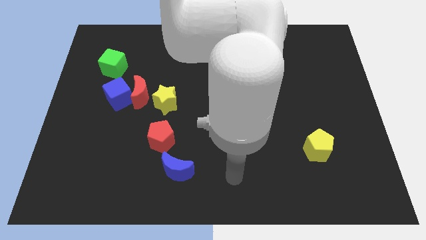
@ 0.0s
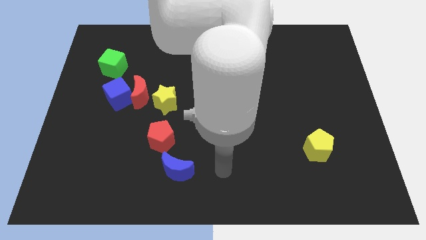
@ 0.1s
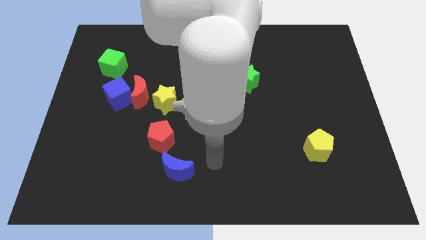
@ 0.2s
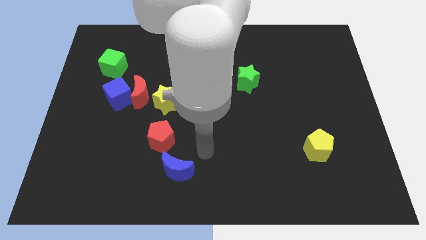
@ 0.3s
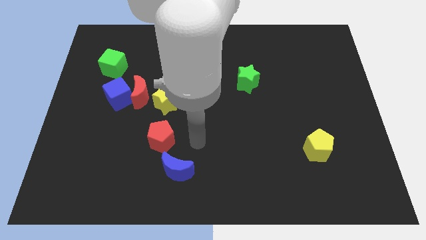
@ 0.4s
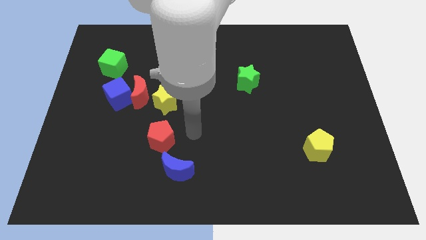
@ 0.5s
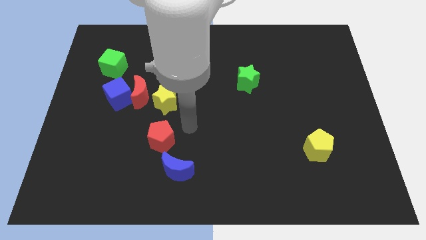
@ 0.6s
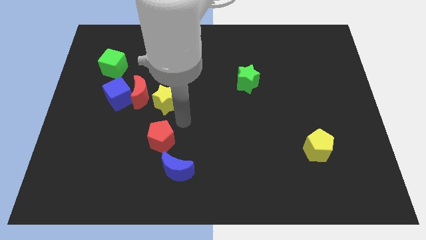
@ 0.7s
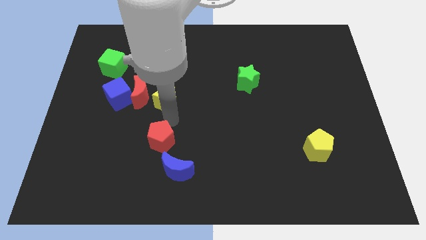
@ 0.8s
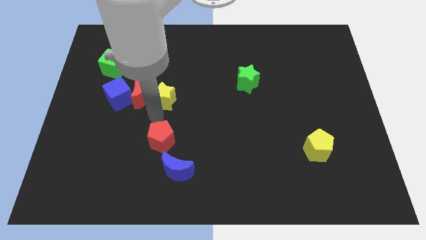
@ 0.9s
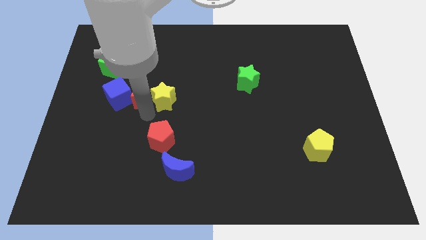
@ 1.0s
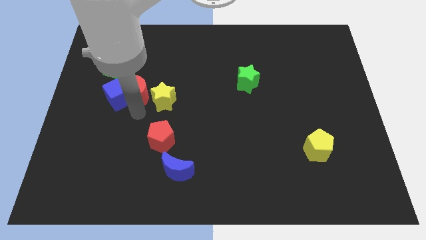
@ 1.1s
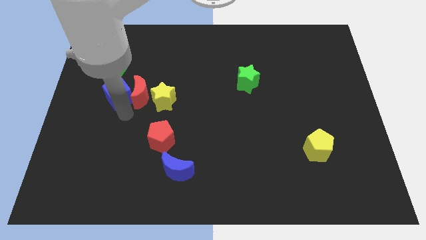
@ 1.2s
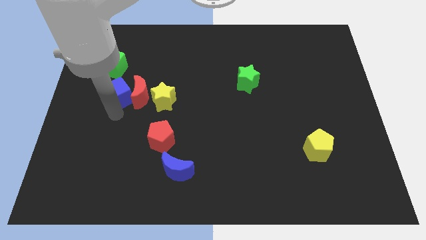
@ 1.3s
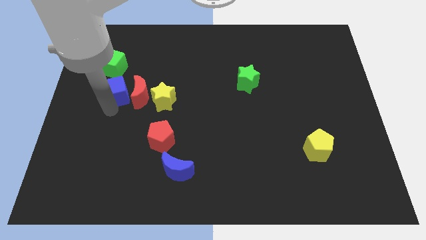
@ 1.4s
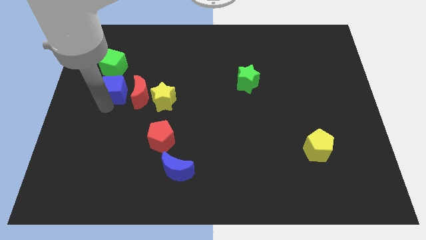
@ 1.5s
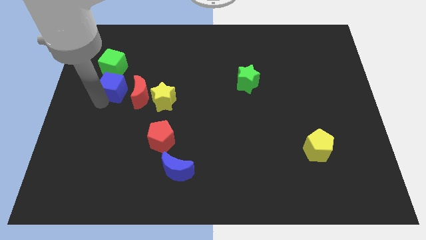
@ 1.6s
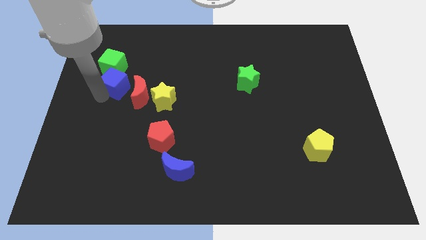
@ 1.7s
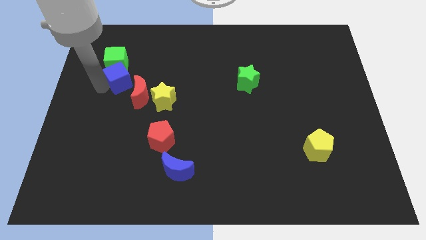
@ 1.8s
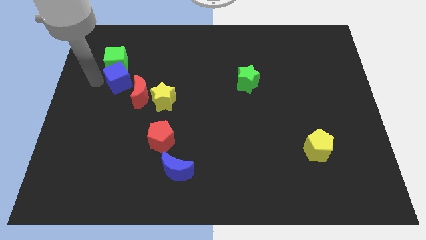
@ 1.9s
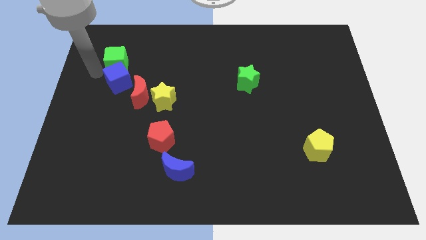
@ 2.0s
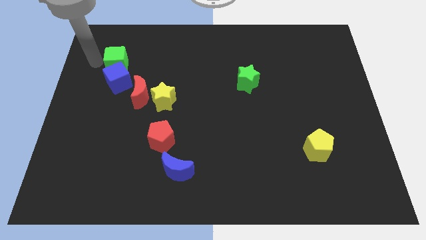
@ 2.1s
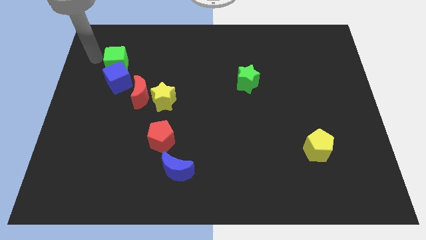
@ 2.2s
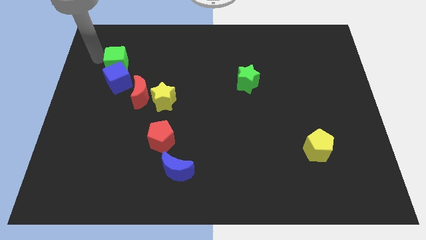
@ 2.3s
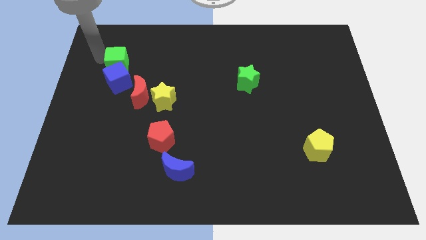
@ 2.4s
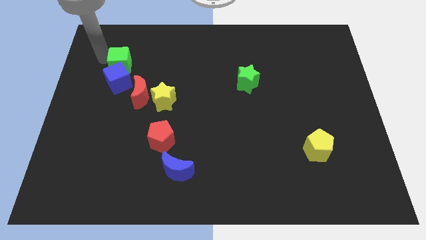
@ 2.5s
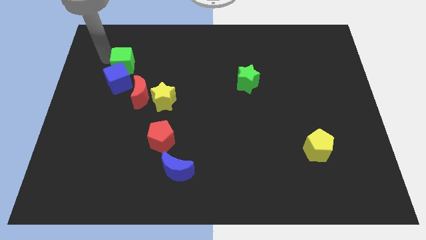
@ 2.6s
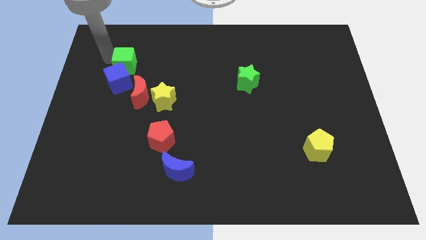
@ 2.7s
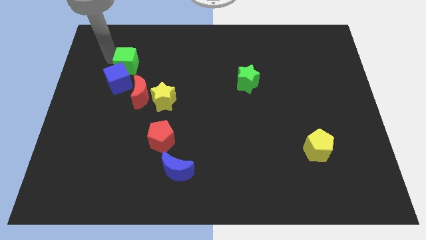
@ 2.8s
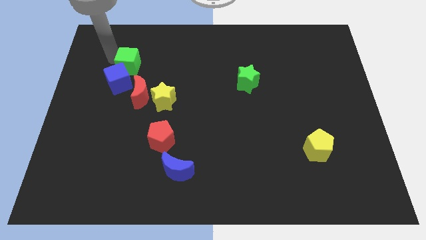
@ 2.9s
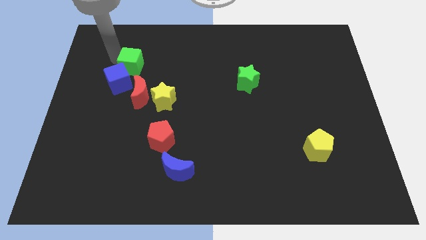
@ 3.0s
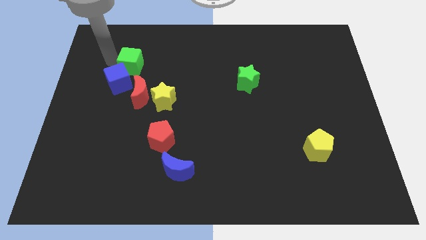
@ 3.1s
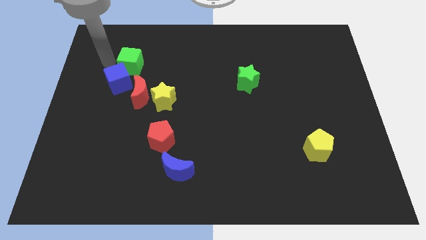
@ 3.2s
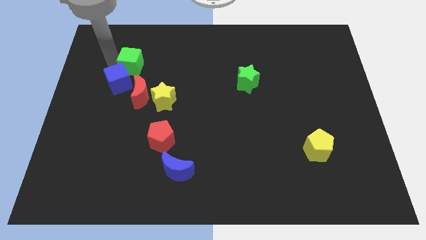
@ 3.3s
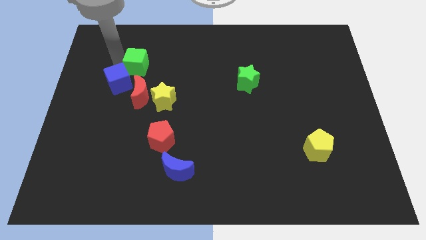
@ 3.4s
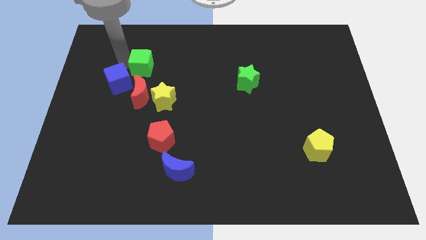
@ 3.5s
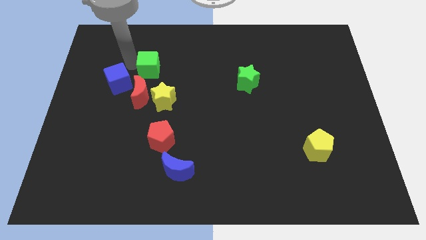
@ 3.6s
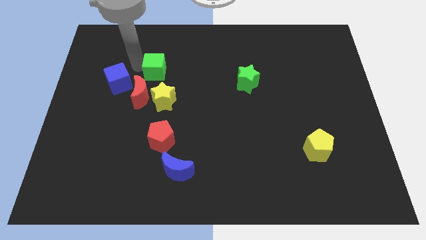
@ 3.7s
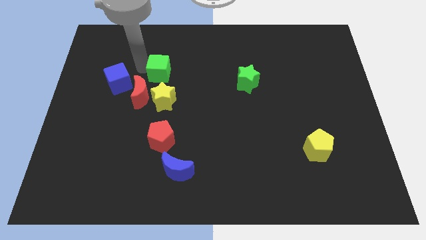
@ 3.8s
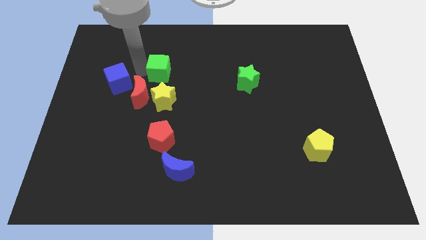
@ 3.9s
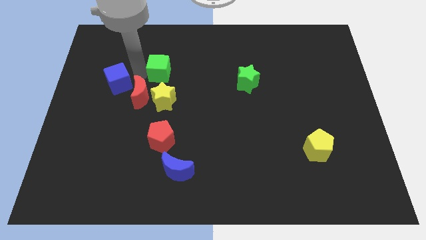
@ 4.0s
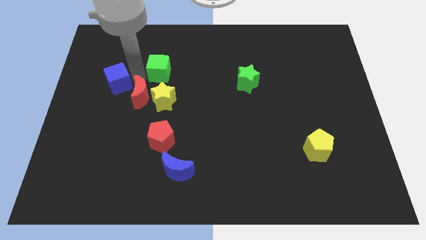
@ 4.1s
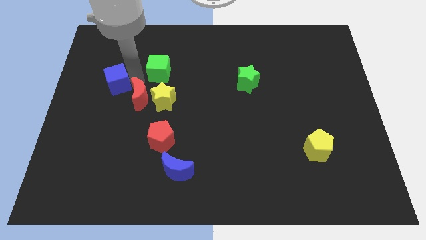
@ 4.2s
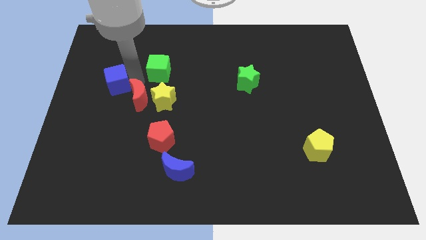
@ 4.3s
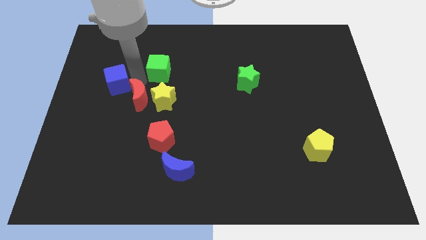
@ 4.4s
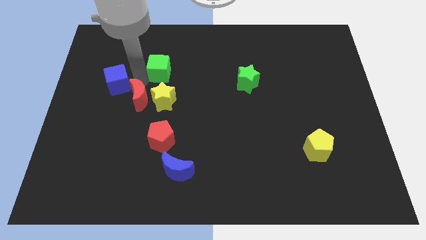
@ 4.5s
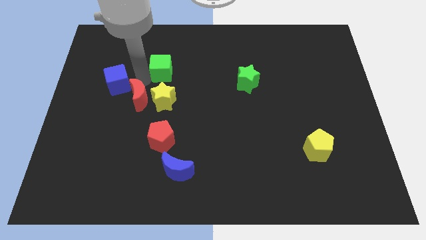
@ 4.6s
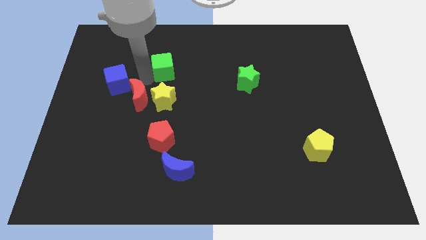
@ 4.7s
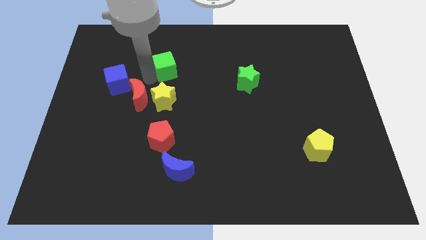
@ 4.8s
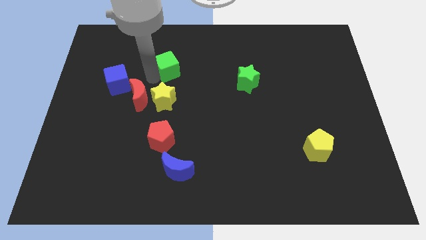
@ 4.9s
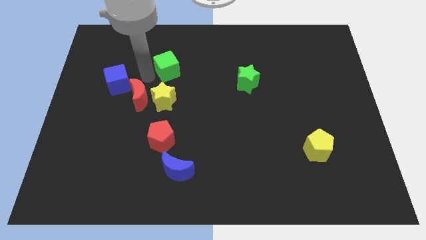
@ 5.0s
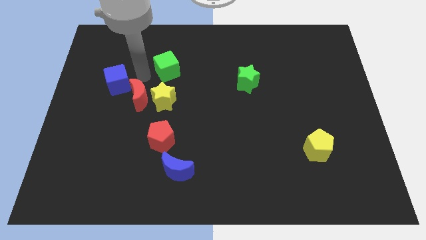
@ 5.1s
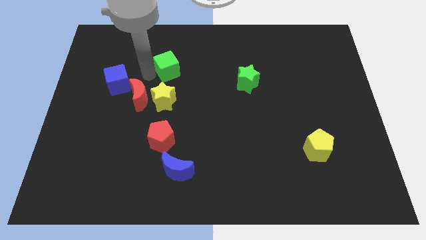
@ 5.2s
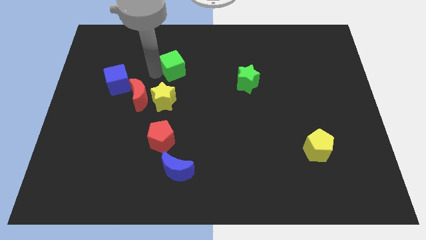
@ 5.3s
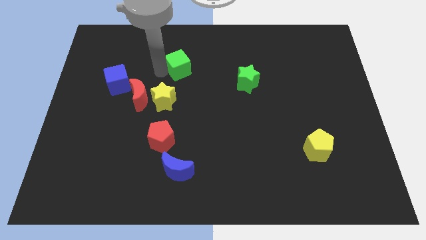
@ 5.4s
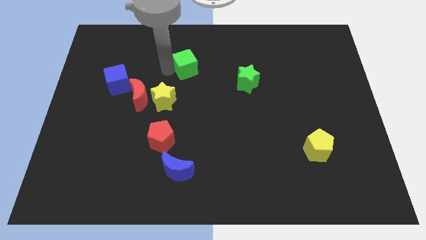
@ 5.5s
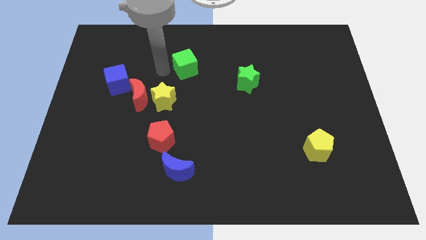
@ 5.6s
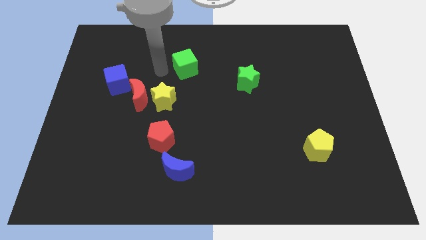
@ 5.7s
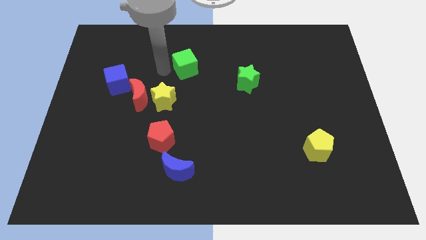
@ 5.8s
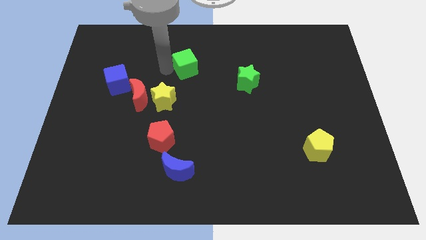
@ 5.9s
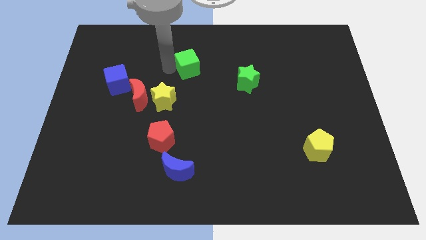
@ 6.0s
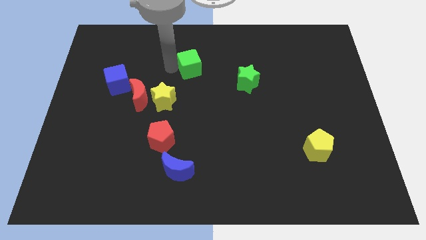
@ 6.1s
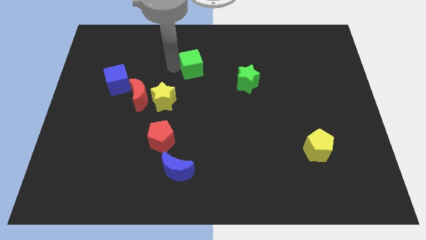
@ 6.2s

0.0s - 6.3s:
slide the green cube right

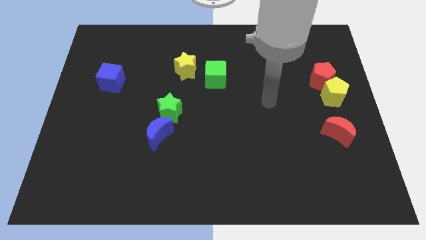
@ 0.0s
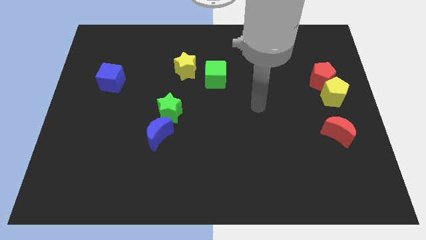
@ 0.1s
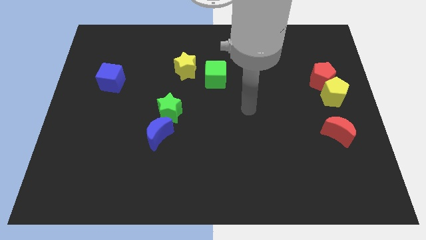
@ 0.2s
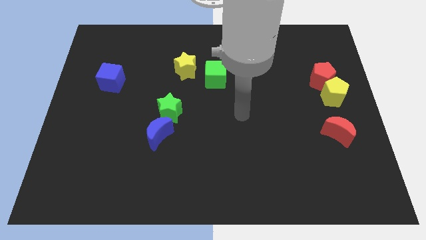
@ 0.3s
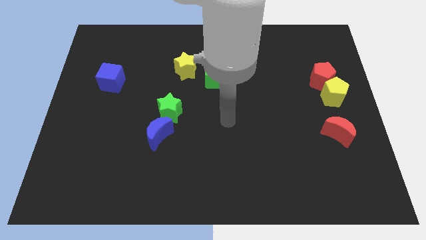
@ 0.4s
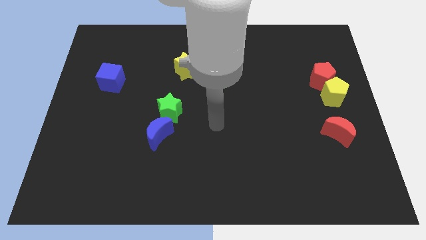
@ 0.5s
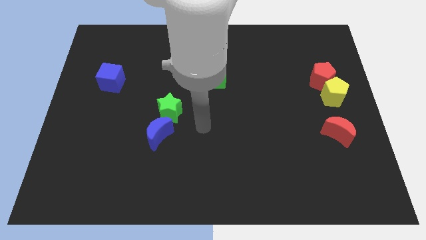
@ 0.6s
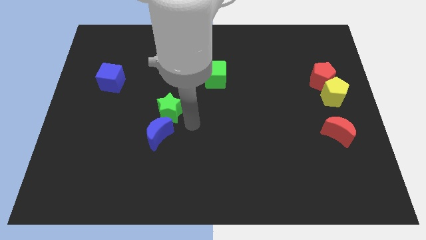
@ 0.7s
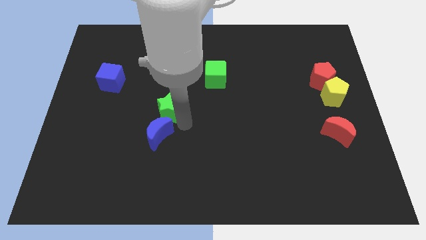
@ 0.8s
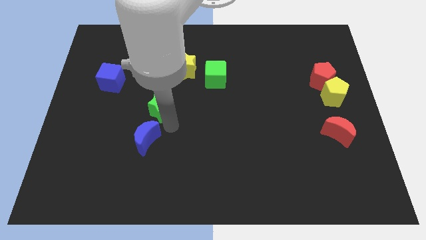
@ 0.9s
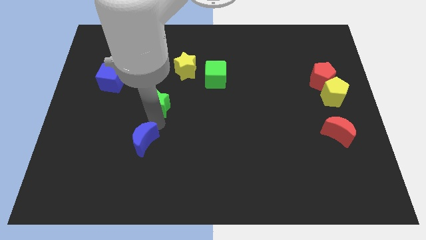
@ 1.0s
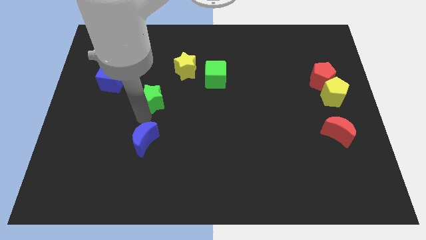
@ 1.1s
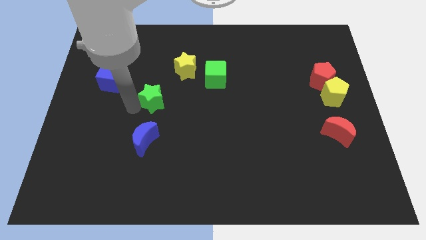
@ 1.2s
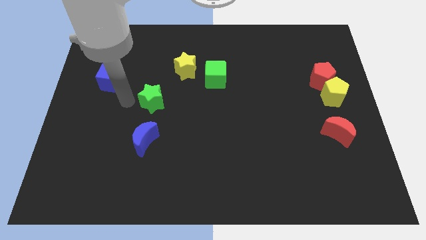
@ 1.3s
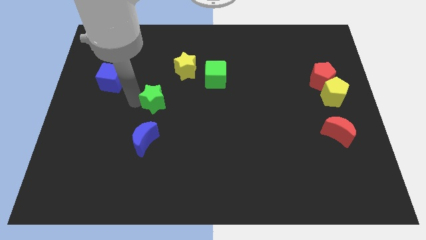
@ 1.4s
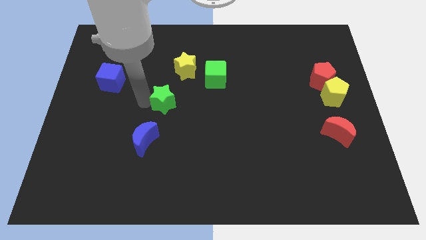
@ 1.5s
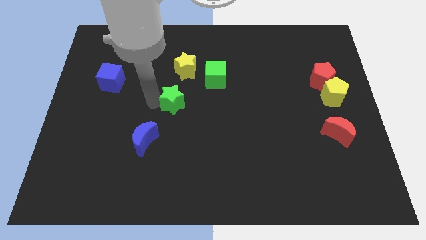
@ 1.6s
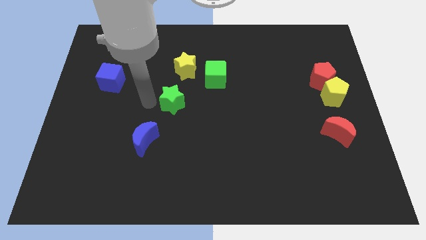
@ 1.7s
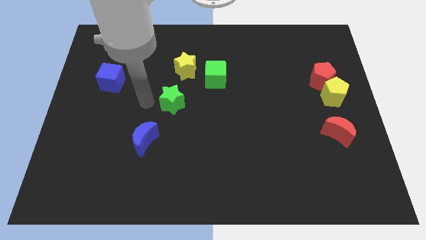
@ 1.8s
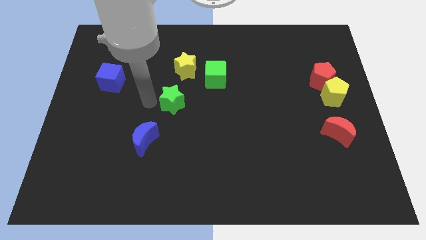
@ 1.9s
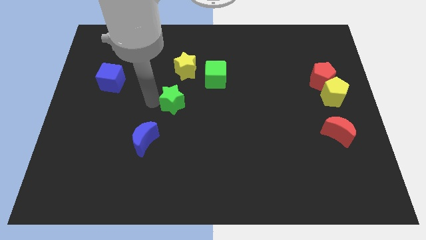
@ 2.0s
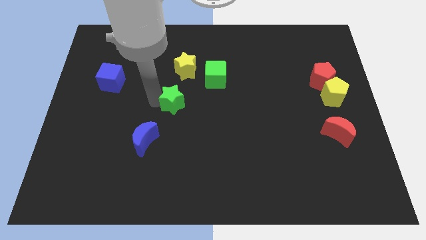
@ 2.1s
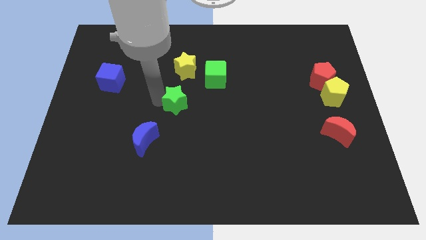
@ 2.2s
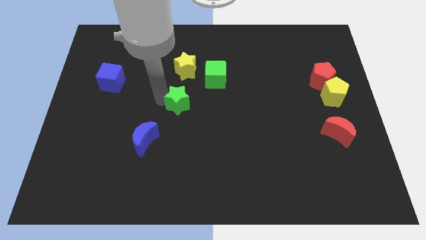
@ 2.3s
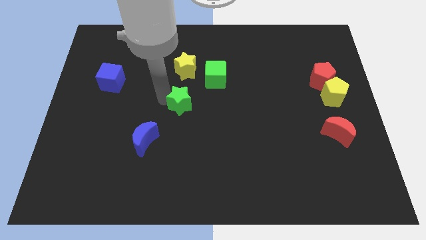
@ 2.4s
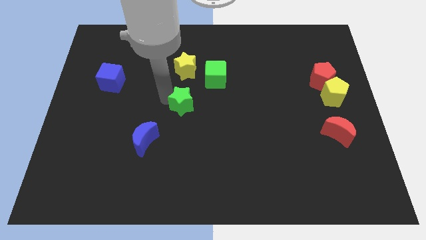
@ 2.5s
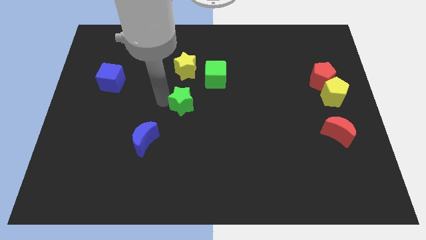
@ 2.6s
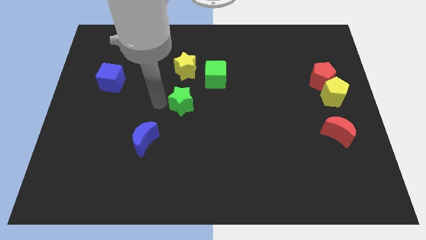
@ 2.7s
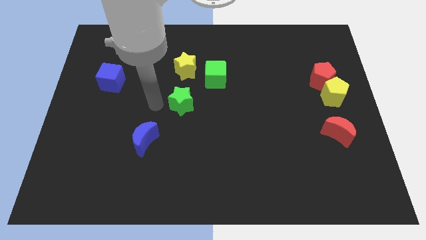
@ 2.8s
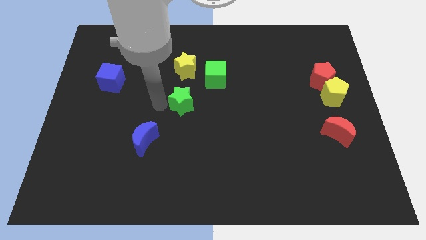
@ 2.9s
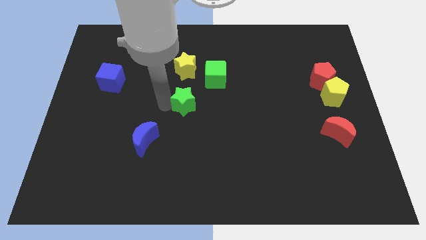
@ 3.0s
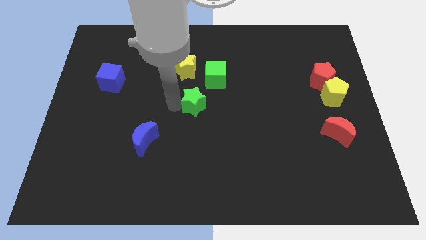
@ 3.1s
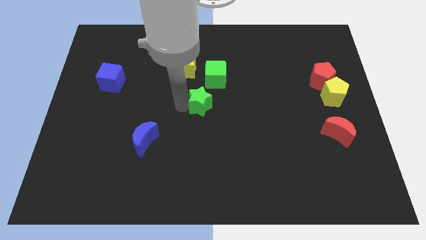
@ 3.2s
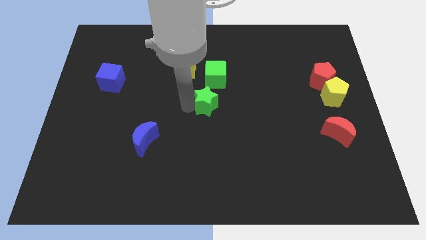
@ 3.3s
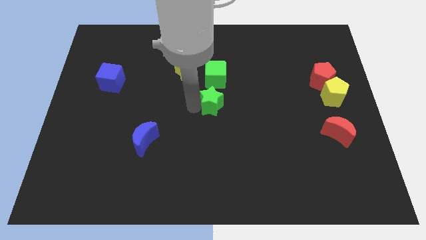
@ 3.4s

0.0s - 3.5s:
move the green star a bit up and then to the right
